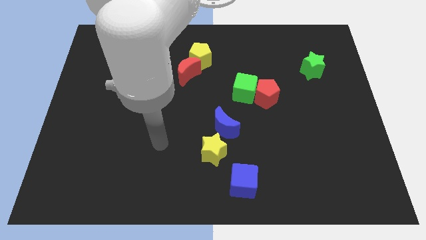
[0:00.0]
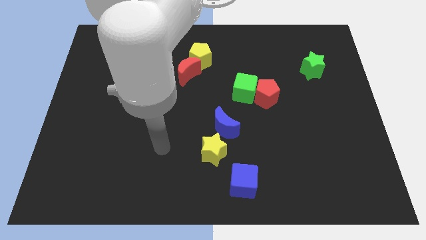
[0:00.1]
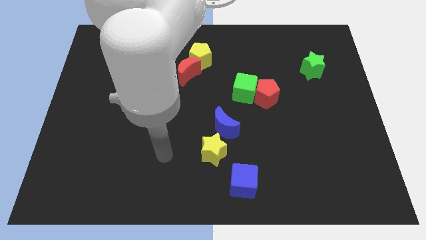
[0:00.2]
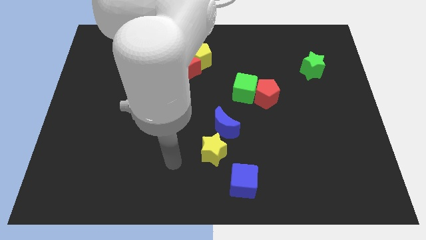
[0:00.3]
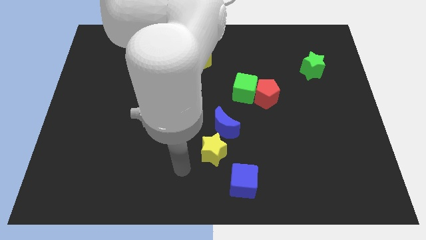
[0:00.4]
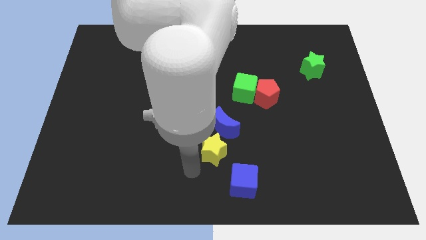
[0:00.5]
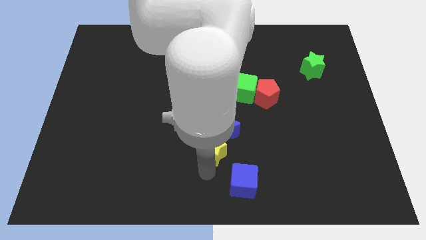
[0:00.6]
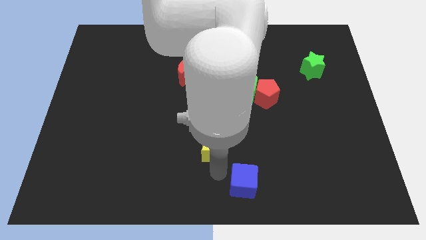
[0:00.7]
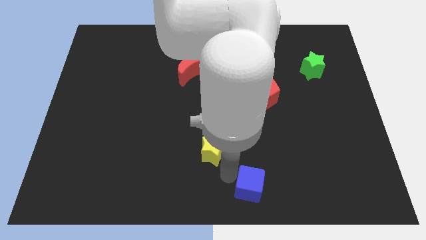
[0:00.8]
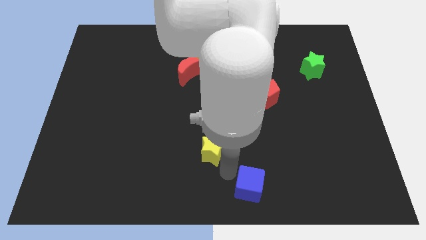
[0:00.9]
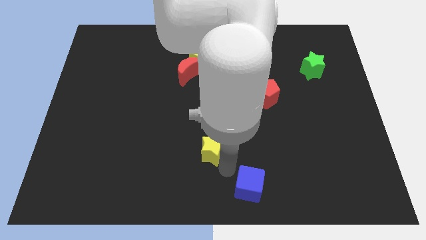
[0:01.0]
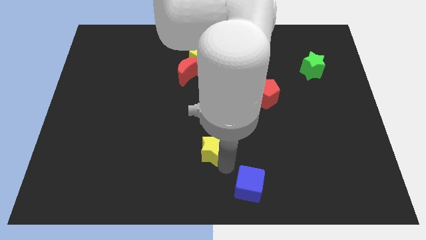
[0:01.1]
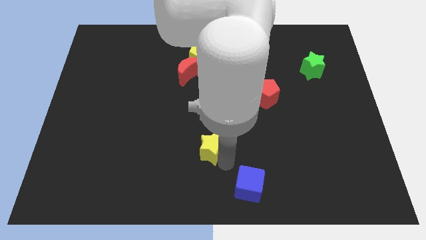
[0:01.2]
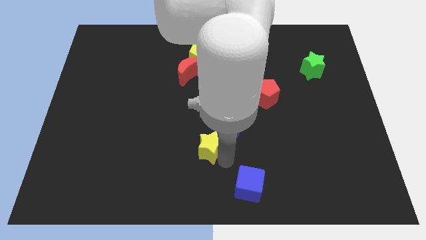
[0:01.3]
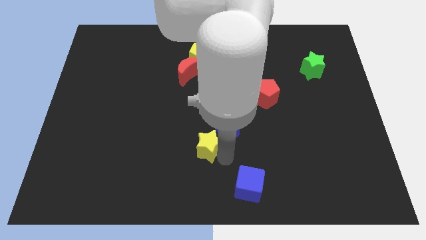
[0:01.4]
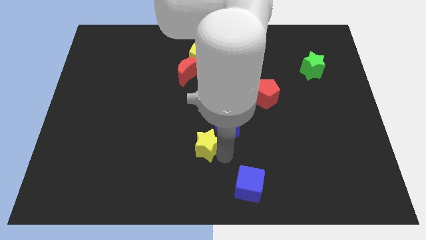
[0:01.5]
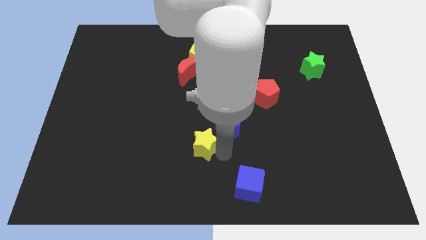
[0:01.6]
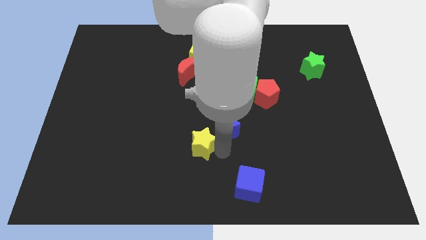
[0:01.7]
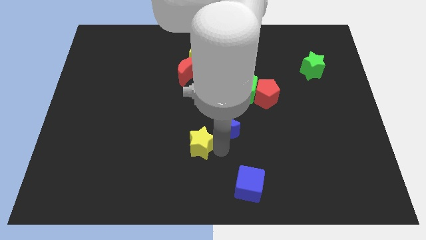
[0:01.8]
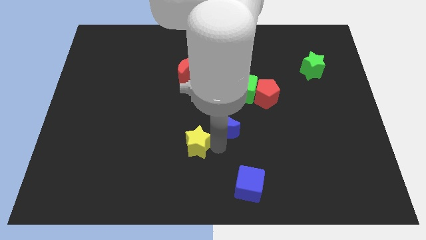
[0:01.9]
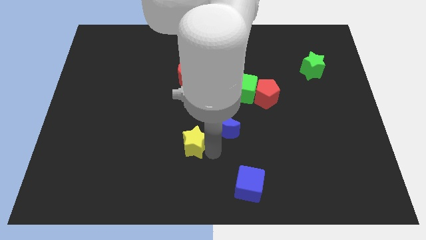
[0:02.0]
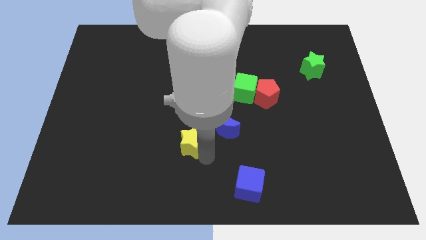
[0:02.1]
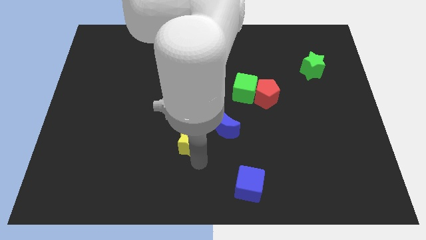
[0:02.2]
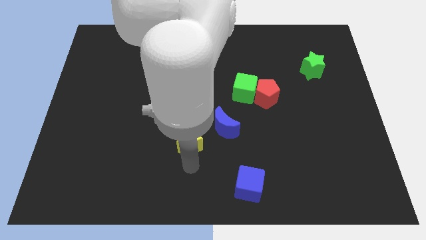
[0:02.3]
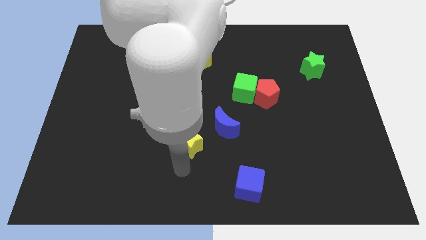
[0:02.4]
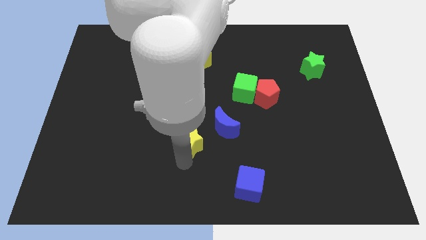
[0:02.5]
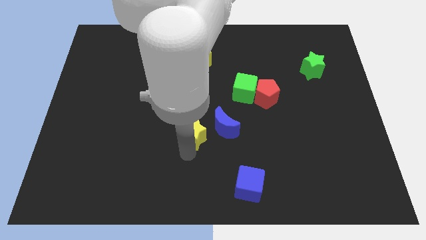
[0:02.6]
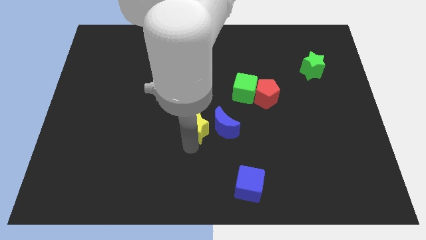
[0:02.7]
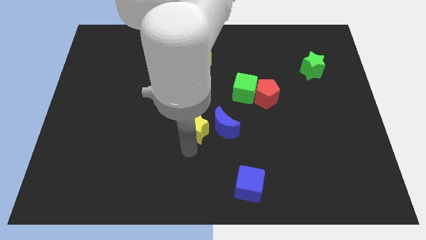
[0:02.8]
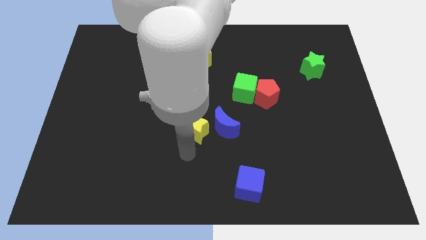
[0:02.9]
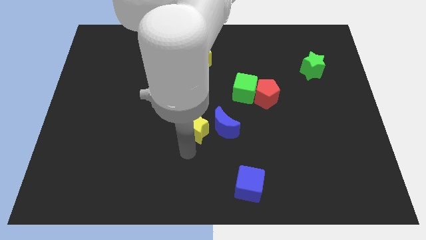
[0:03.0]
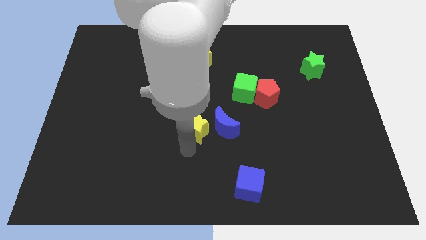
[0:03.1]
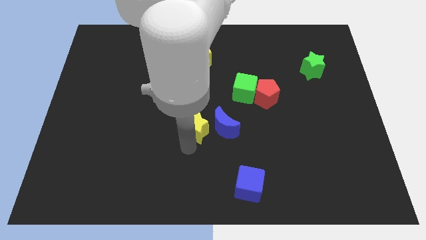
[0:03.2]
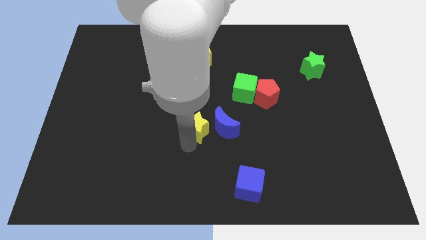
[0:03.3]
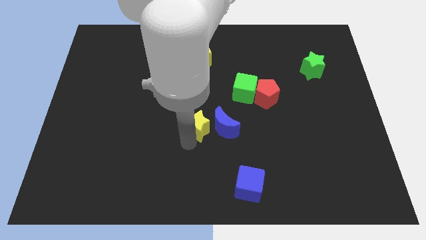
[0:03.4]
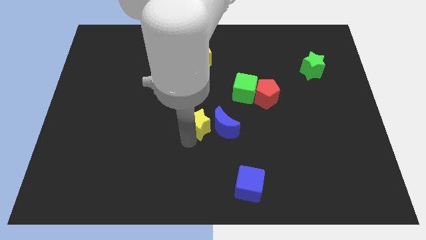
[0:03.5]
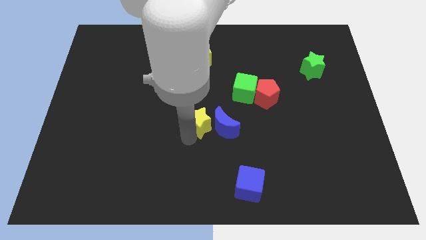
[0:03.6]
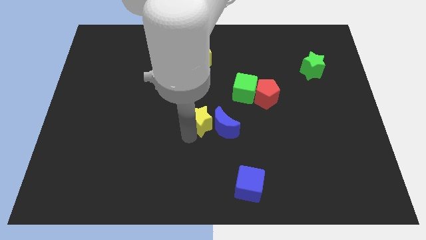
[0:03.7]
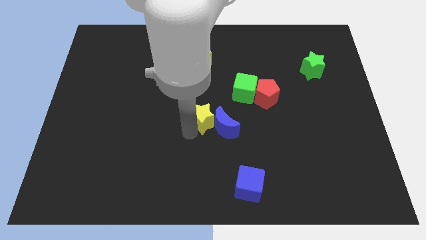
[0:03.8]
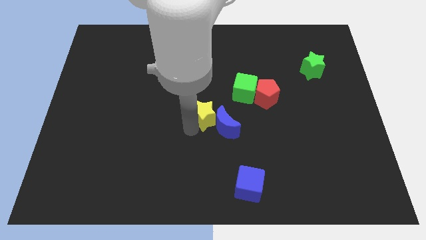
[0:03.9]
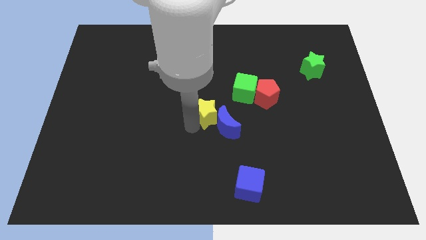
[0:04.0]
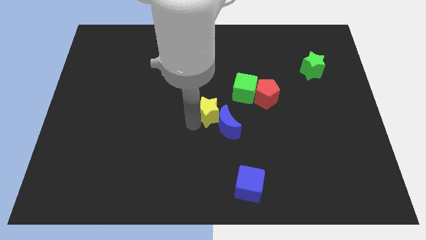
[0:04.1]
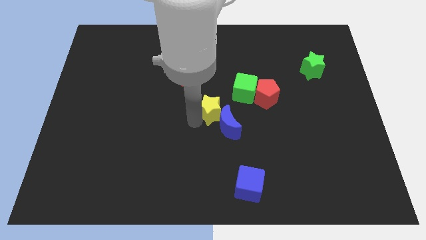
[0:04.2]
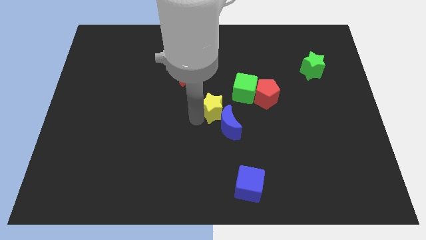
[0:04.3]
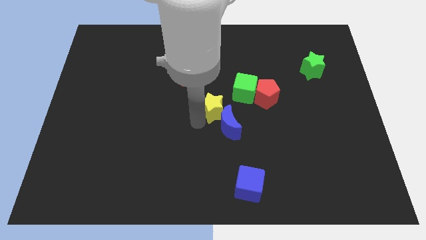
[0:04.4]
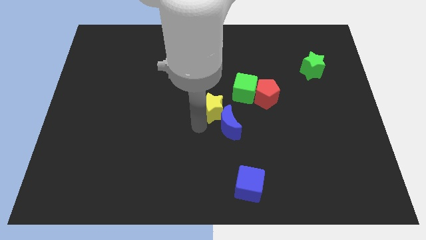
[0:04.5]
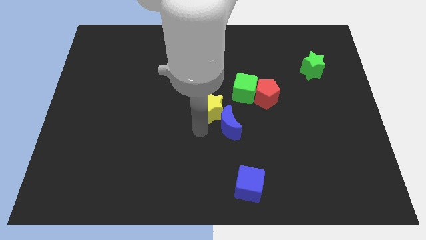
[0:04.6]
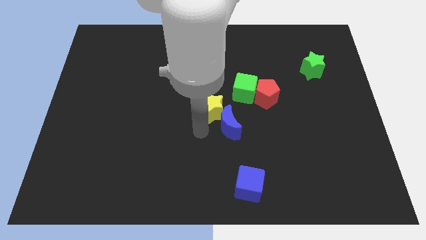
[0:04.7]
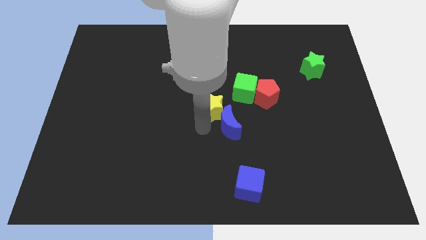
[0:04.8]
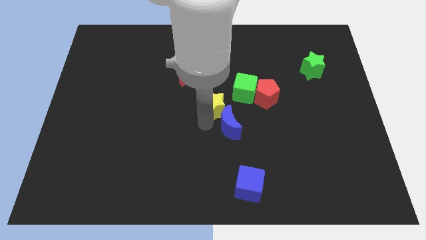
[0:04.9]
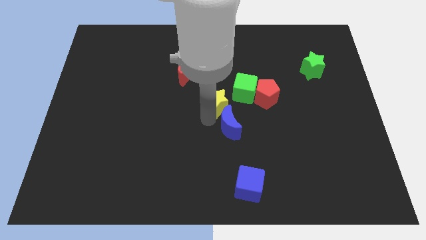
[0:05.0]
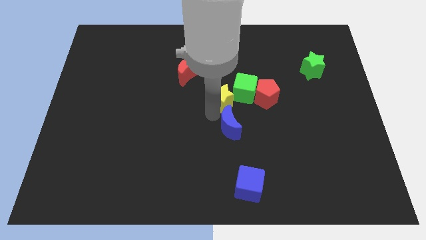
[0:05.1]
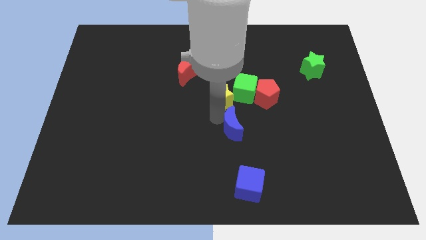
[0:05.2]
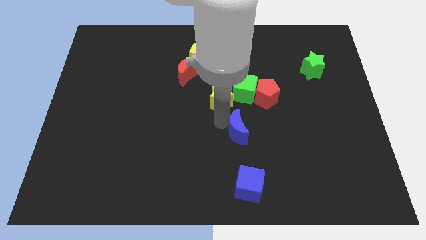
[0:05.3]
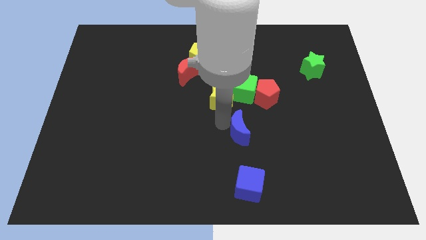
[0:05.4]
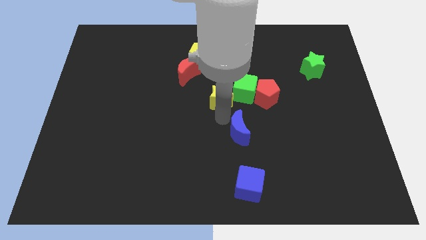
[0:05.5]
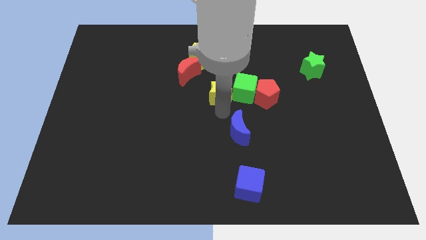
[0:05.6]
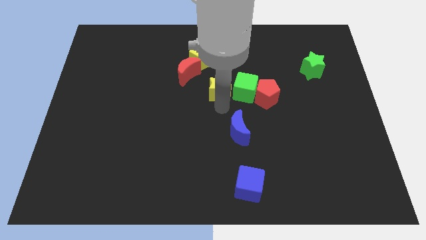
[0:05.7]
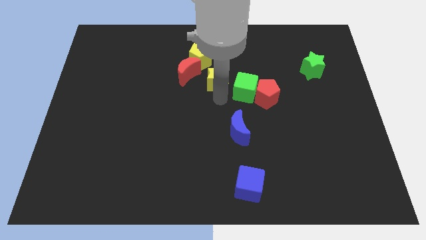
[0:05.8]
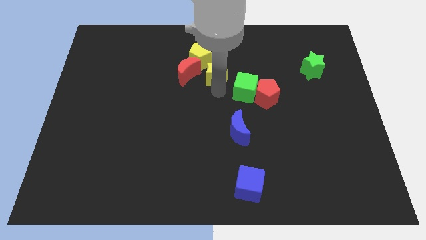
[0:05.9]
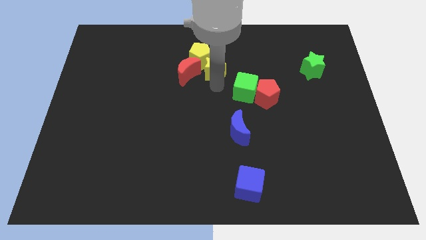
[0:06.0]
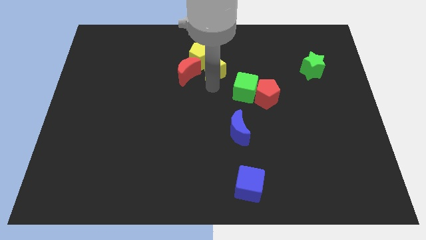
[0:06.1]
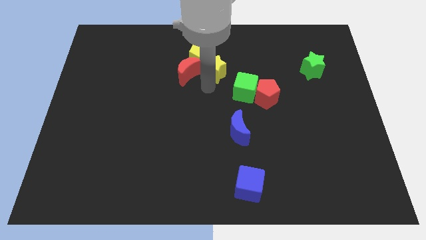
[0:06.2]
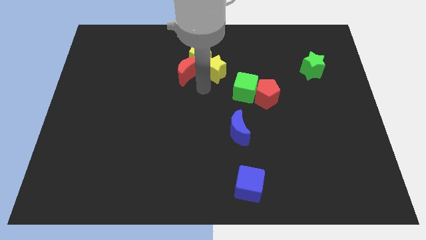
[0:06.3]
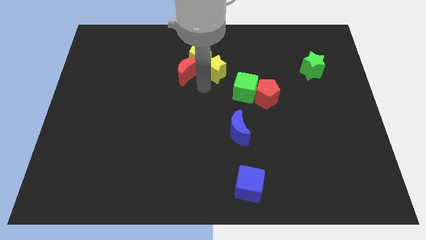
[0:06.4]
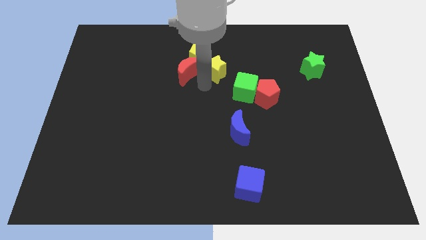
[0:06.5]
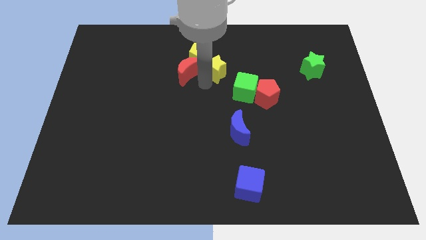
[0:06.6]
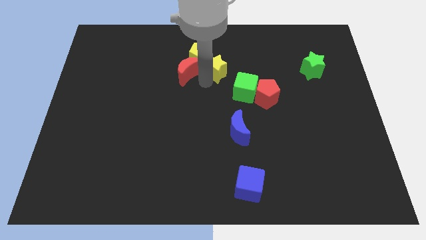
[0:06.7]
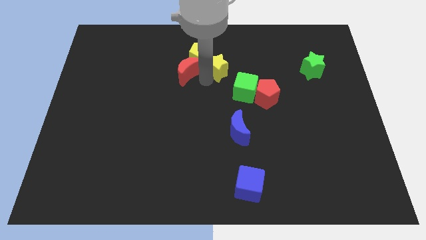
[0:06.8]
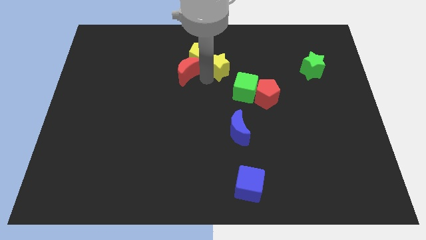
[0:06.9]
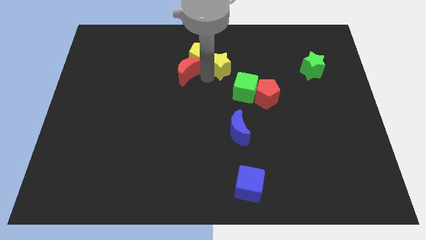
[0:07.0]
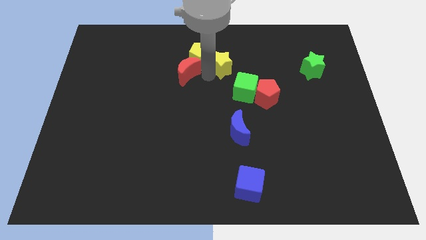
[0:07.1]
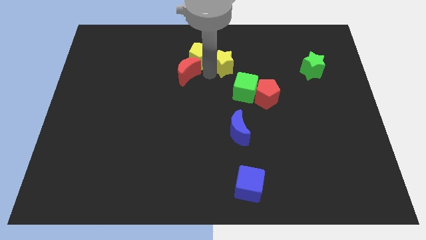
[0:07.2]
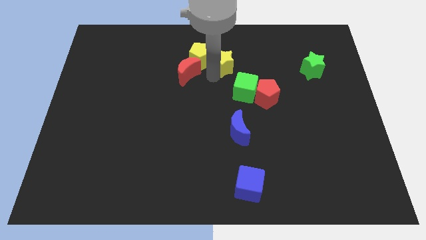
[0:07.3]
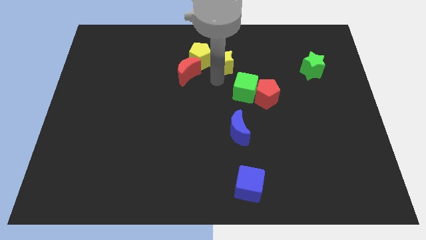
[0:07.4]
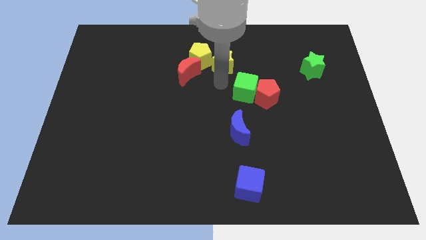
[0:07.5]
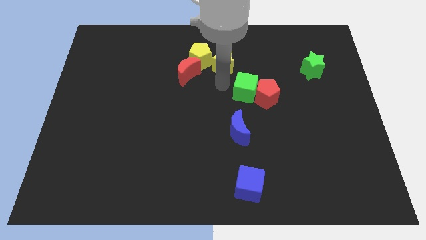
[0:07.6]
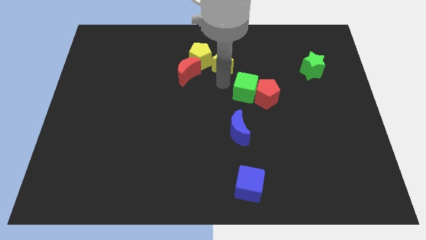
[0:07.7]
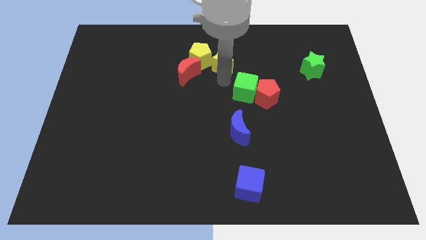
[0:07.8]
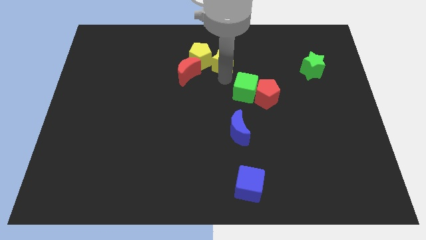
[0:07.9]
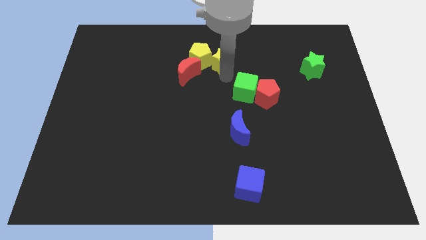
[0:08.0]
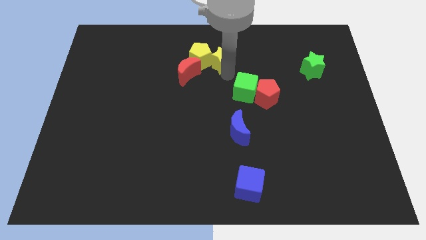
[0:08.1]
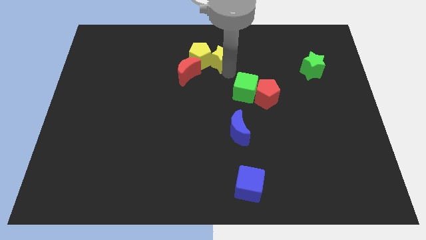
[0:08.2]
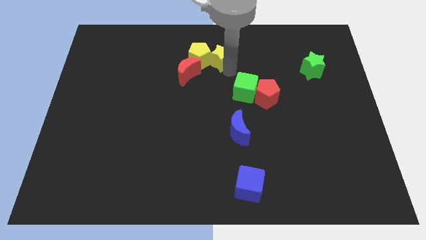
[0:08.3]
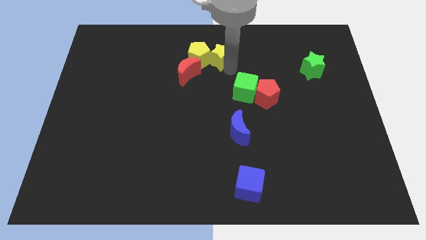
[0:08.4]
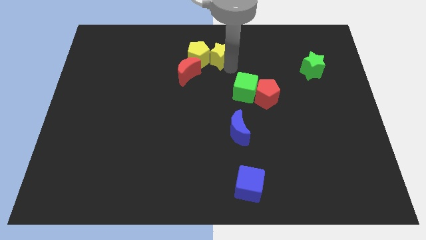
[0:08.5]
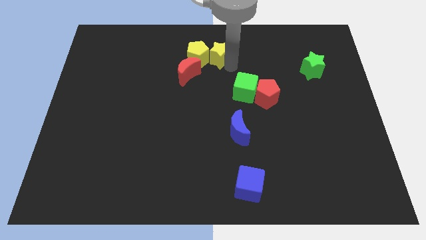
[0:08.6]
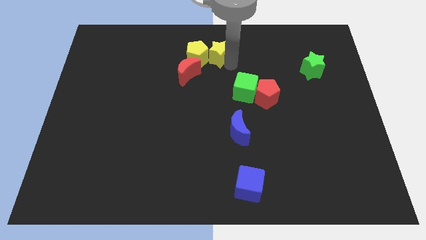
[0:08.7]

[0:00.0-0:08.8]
push the yellow star to the top side
